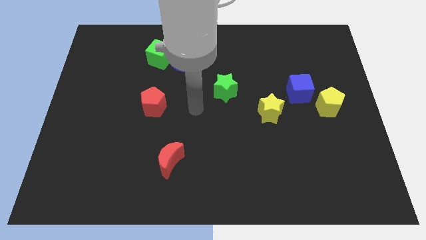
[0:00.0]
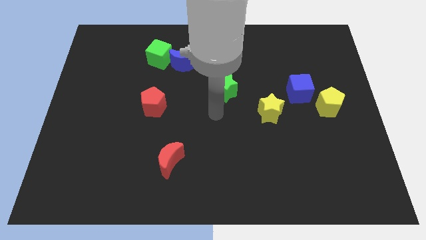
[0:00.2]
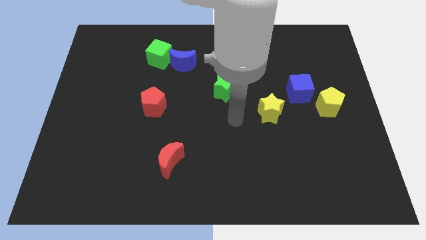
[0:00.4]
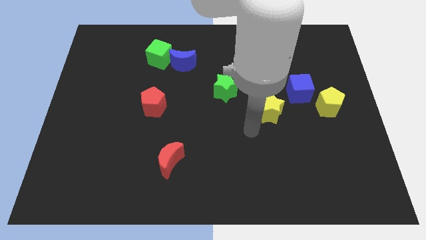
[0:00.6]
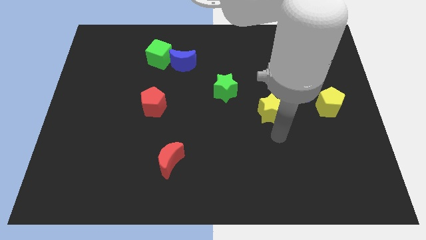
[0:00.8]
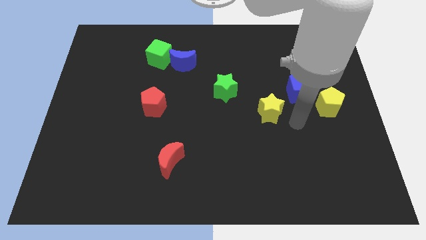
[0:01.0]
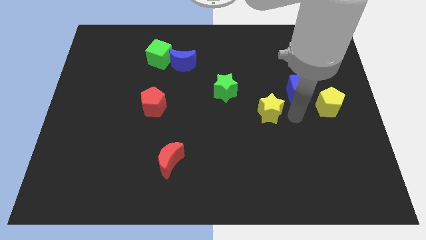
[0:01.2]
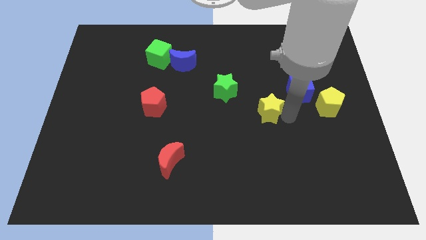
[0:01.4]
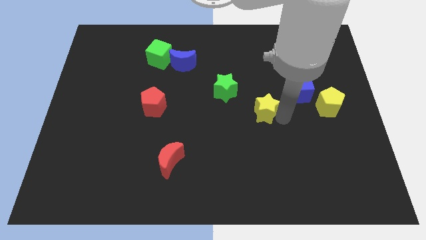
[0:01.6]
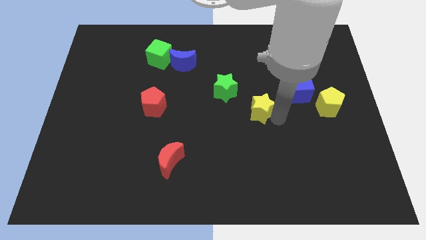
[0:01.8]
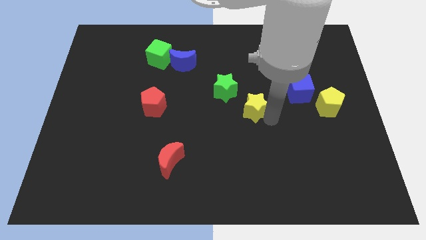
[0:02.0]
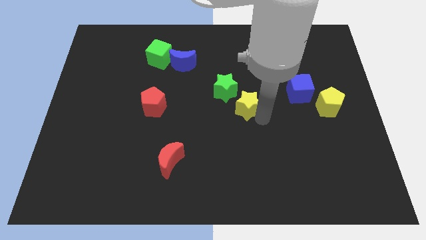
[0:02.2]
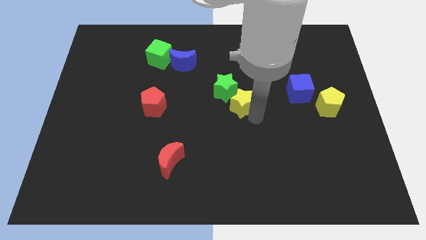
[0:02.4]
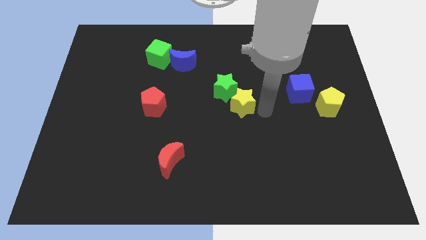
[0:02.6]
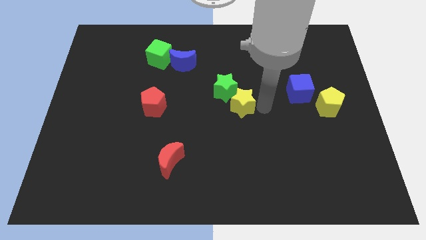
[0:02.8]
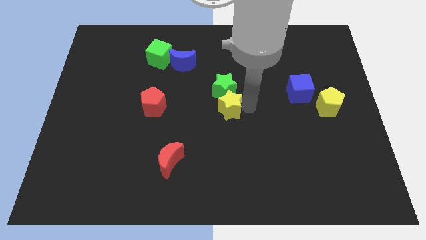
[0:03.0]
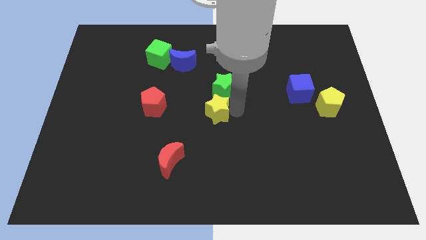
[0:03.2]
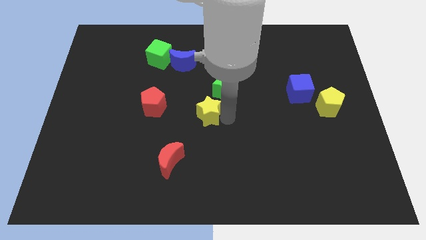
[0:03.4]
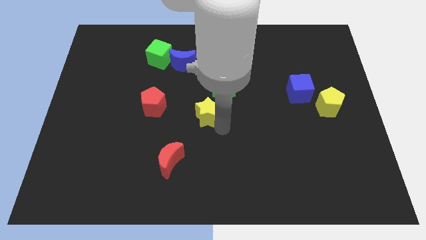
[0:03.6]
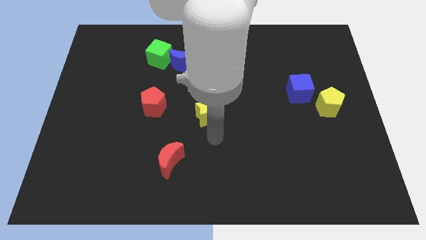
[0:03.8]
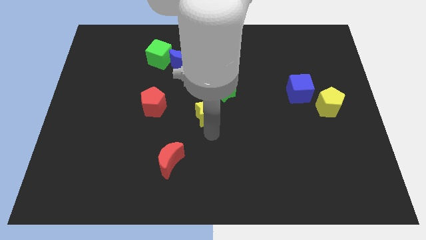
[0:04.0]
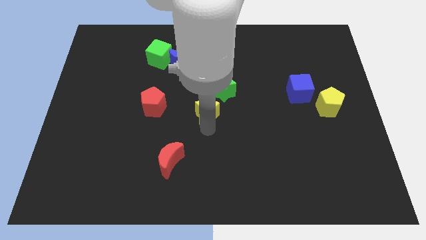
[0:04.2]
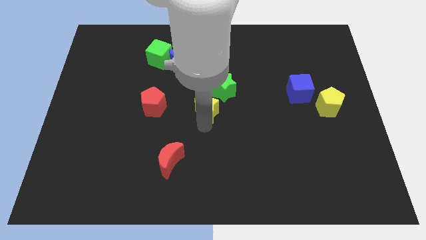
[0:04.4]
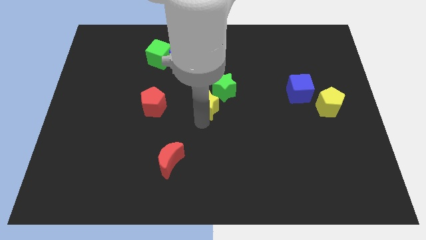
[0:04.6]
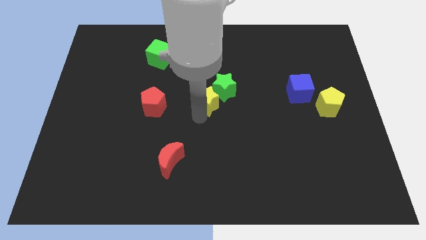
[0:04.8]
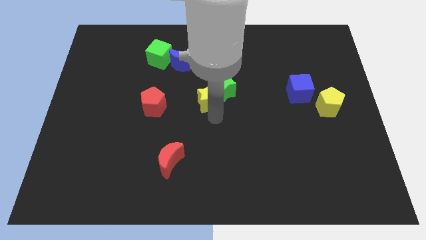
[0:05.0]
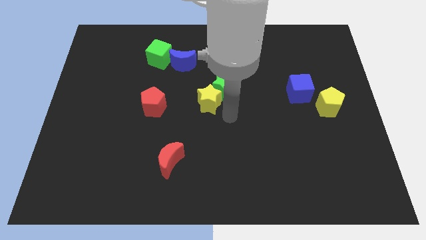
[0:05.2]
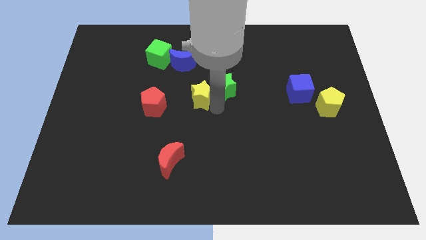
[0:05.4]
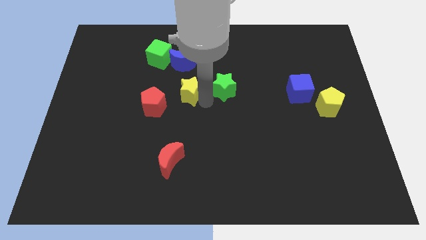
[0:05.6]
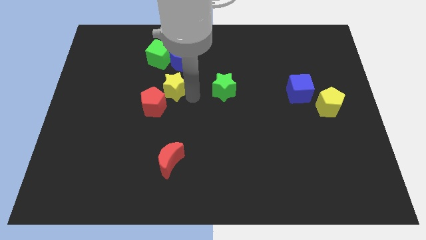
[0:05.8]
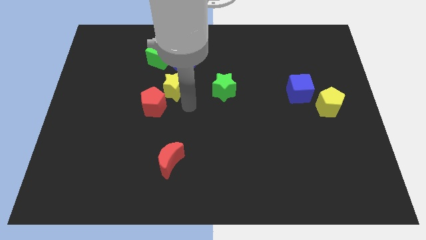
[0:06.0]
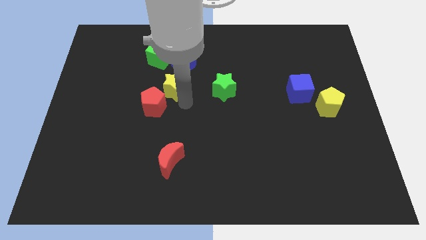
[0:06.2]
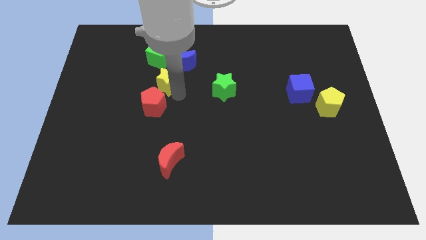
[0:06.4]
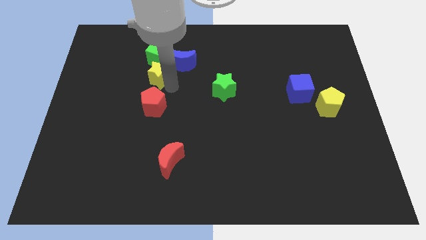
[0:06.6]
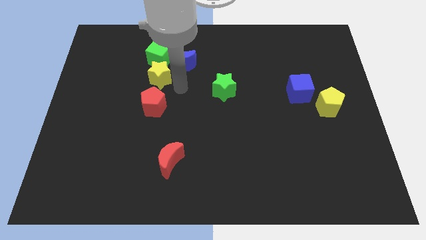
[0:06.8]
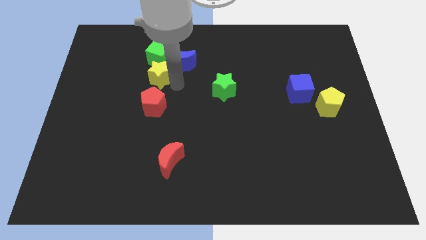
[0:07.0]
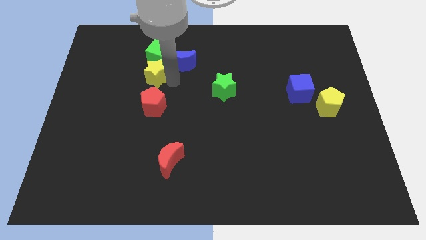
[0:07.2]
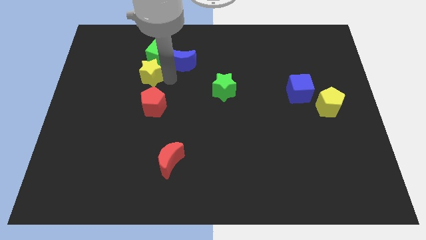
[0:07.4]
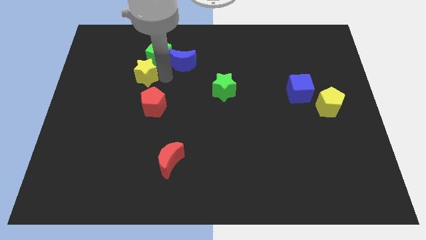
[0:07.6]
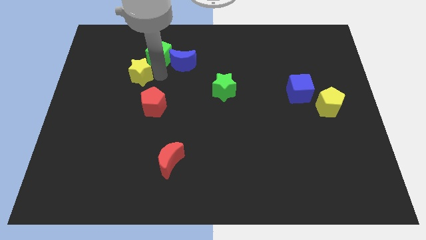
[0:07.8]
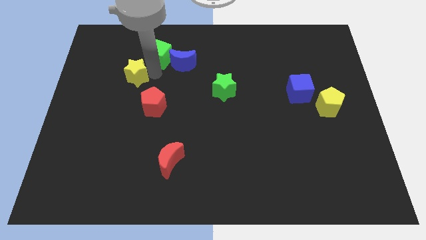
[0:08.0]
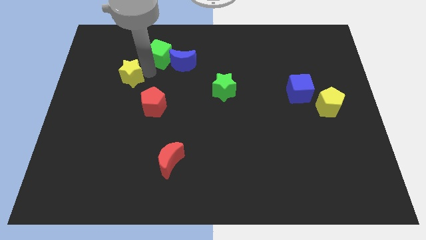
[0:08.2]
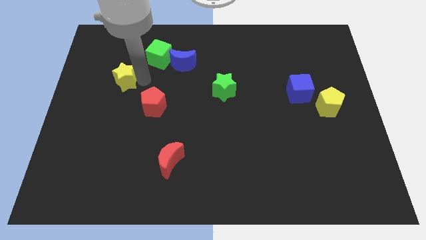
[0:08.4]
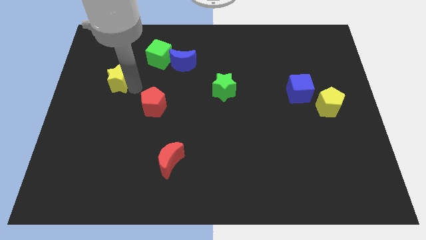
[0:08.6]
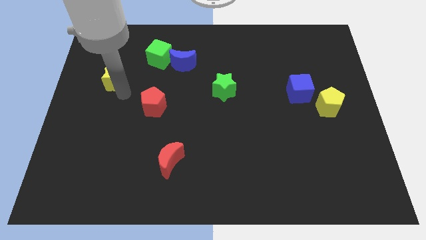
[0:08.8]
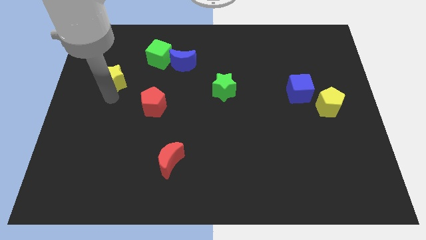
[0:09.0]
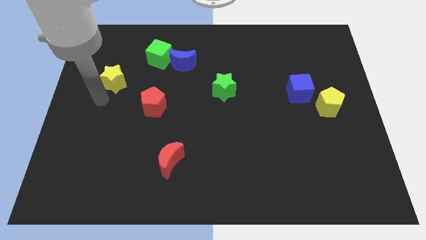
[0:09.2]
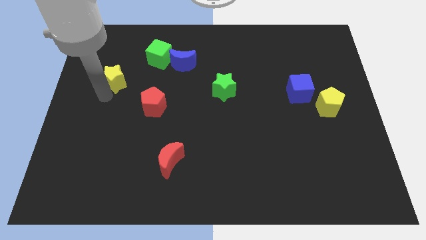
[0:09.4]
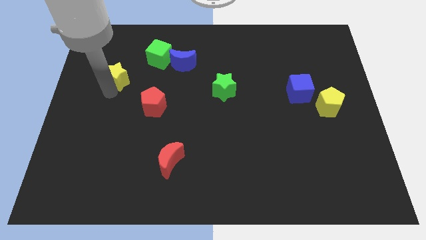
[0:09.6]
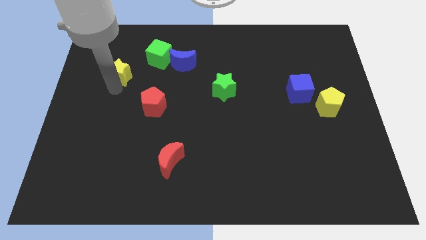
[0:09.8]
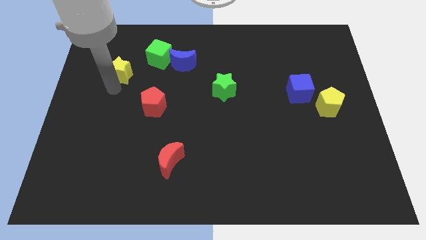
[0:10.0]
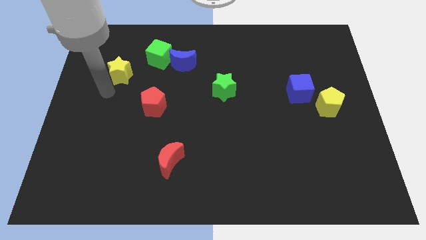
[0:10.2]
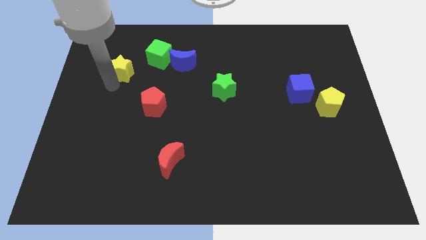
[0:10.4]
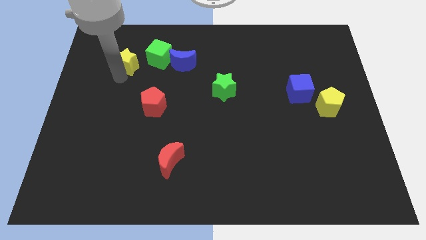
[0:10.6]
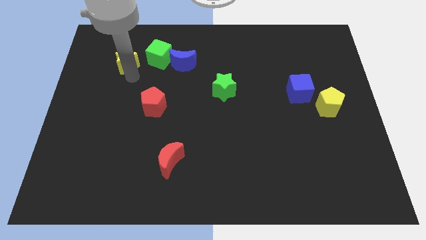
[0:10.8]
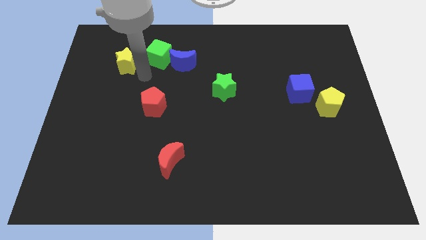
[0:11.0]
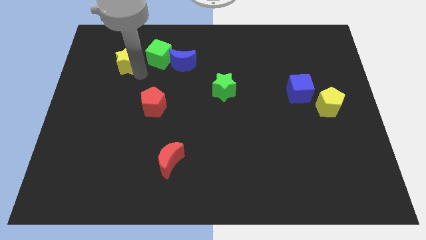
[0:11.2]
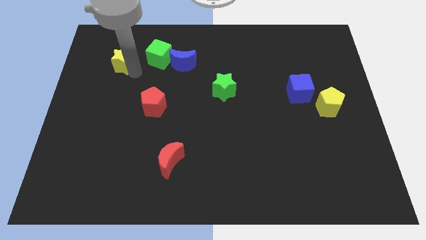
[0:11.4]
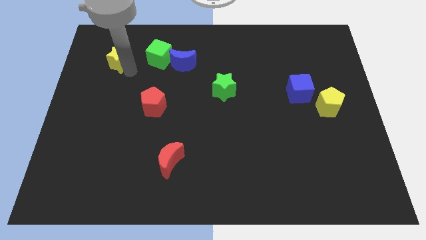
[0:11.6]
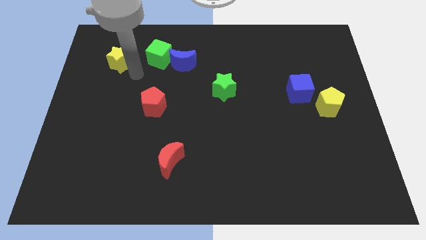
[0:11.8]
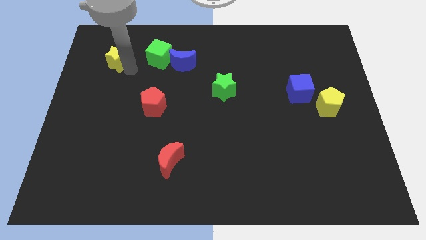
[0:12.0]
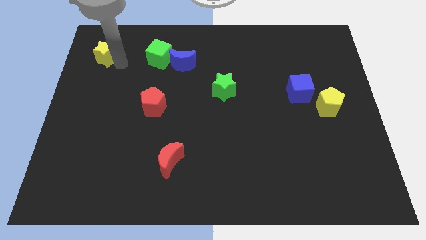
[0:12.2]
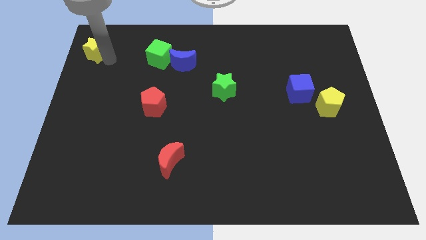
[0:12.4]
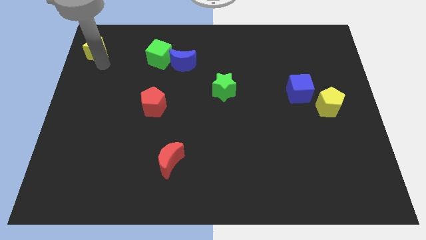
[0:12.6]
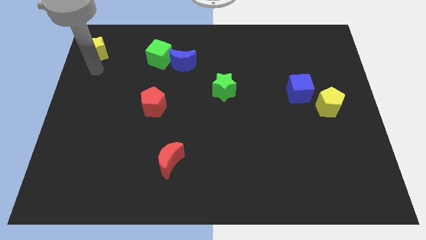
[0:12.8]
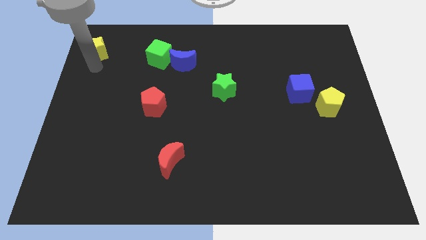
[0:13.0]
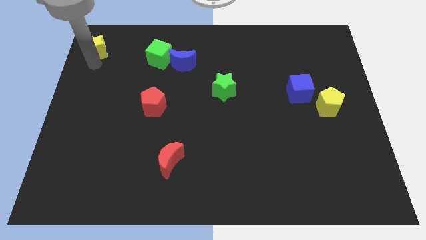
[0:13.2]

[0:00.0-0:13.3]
move the yellow star to the upper left corner
